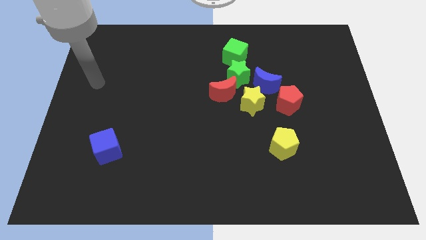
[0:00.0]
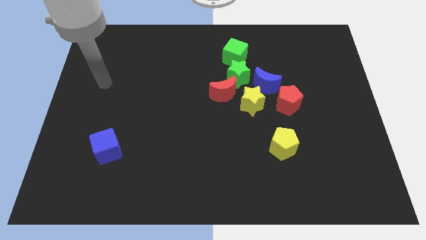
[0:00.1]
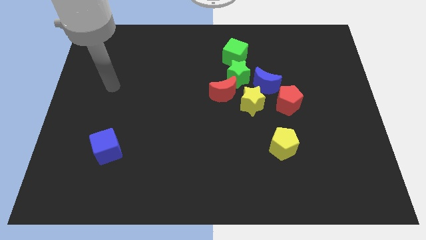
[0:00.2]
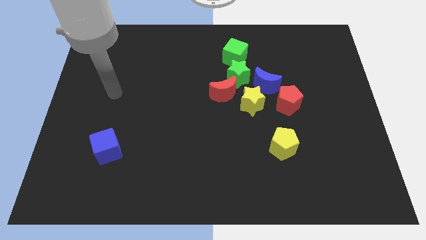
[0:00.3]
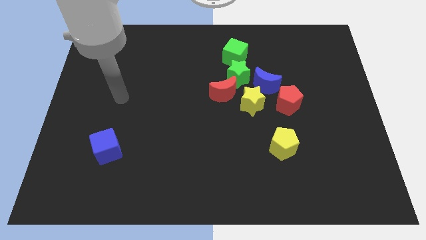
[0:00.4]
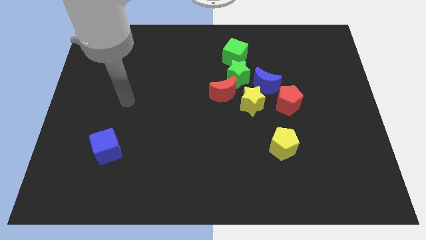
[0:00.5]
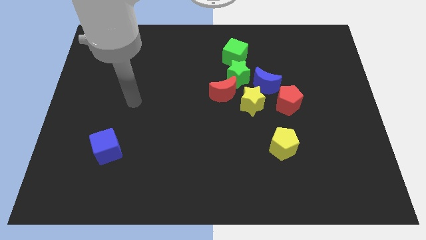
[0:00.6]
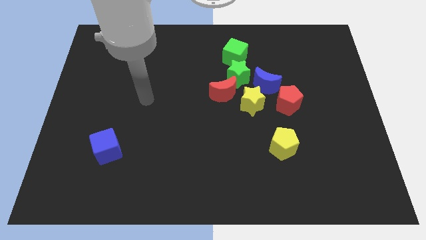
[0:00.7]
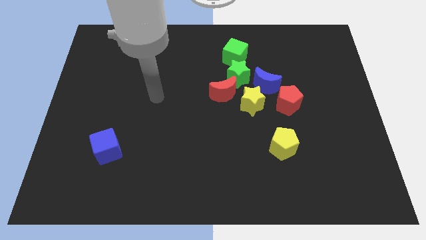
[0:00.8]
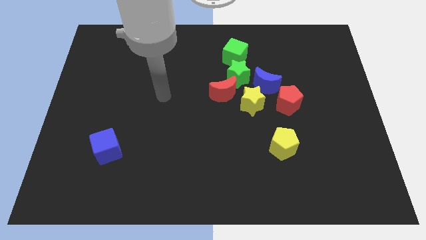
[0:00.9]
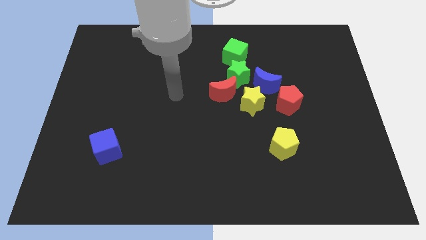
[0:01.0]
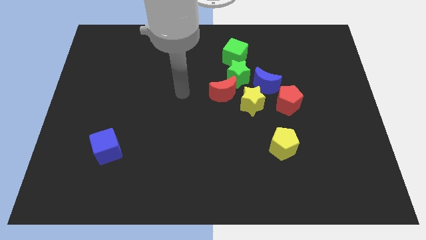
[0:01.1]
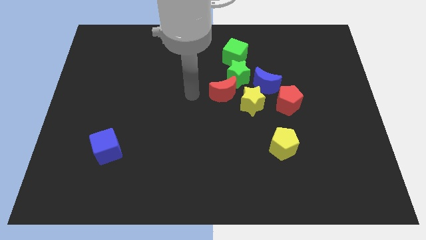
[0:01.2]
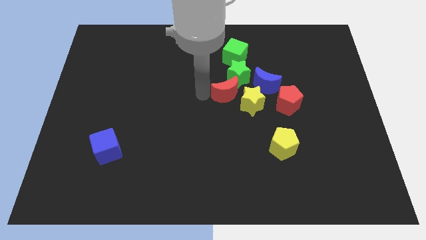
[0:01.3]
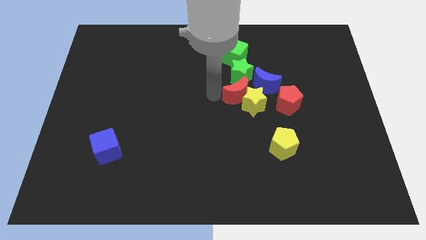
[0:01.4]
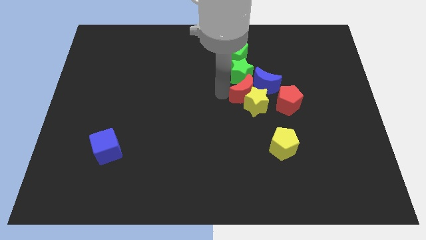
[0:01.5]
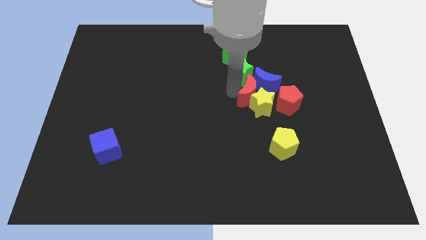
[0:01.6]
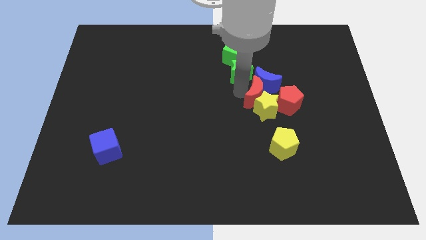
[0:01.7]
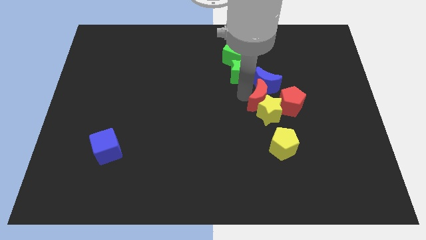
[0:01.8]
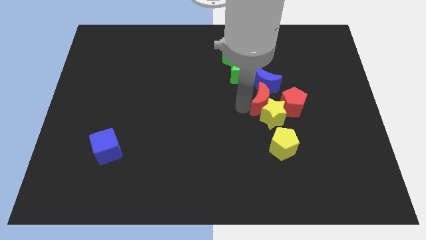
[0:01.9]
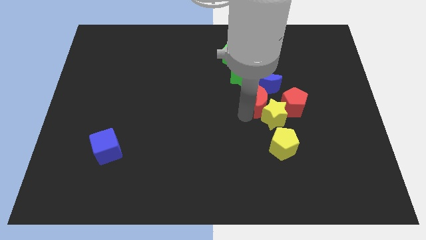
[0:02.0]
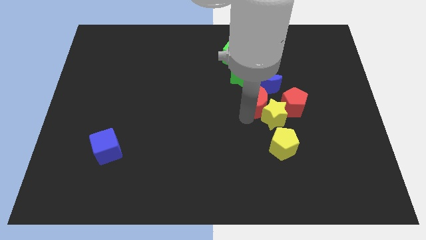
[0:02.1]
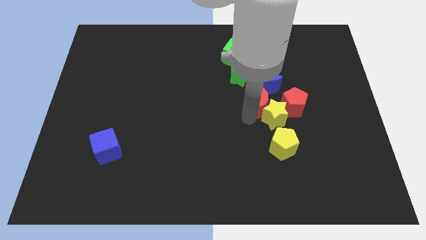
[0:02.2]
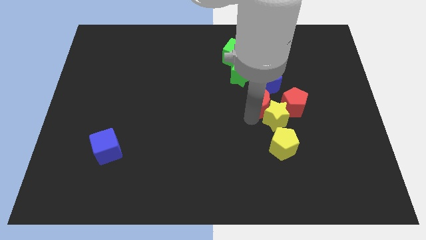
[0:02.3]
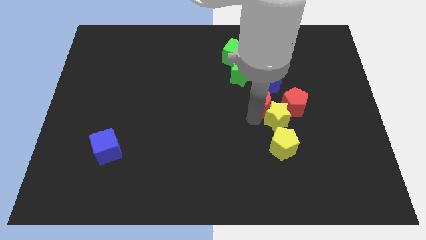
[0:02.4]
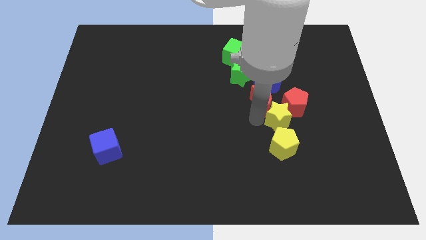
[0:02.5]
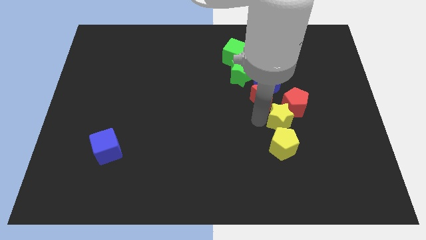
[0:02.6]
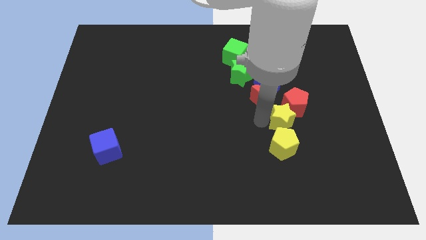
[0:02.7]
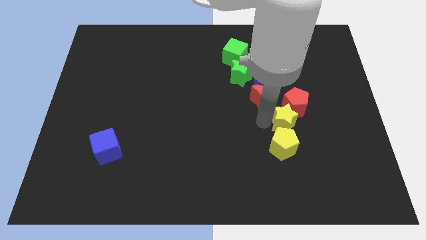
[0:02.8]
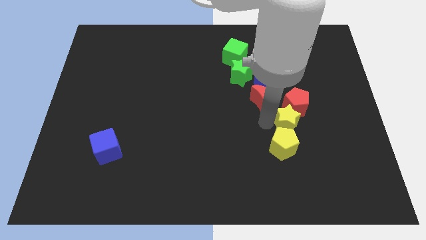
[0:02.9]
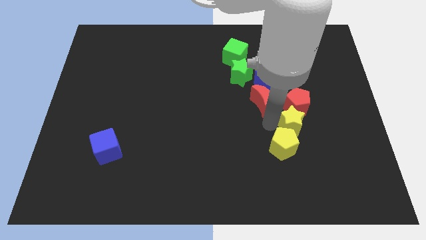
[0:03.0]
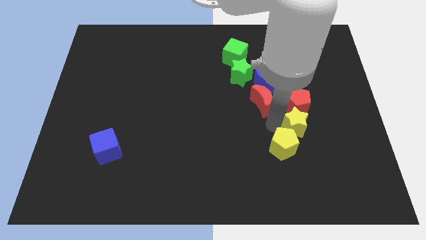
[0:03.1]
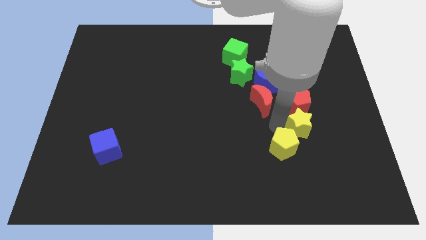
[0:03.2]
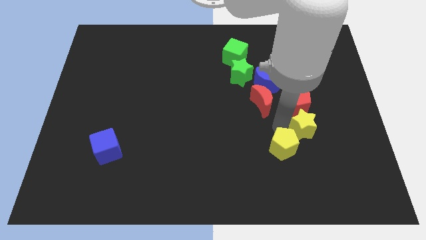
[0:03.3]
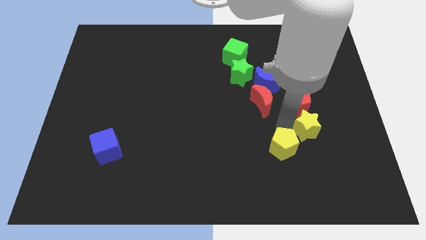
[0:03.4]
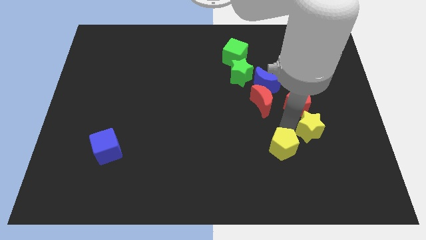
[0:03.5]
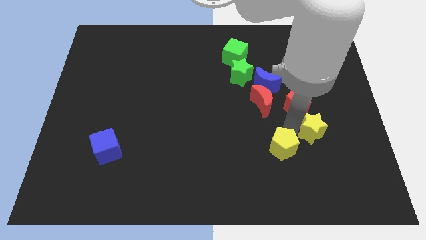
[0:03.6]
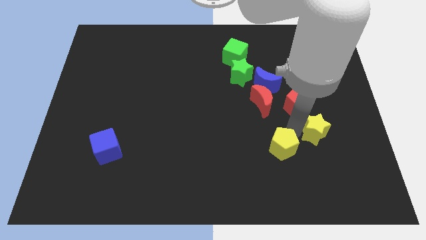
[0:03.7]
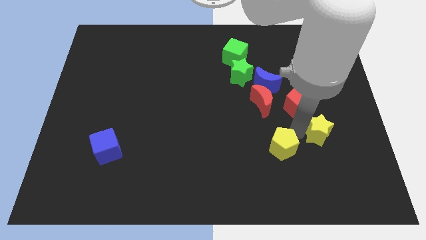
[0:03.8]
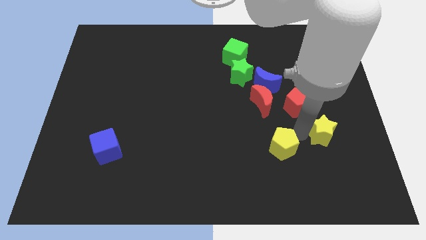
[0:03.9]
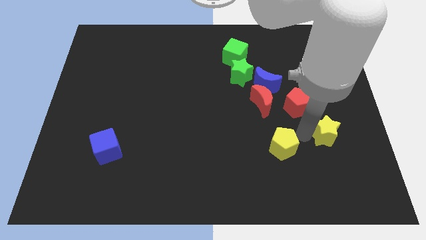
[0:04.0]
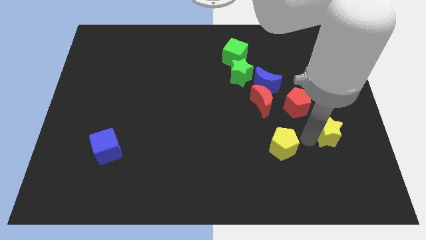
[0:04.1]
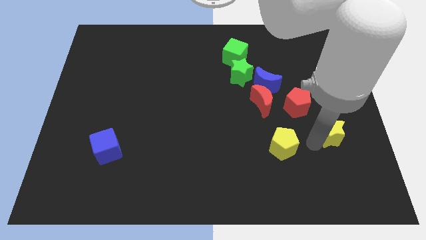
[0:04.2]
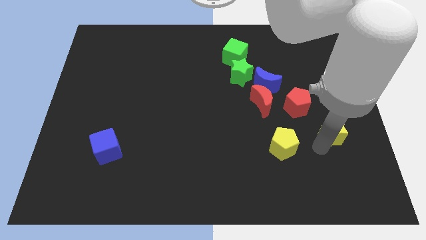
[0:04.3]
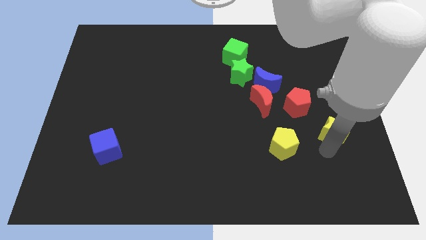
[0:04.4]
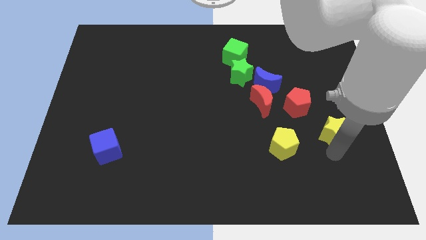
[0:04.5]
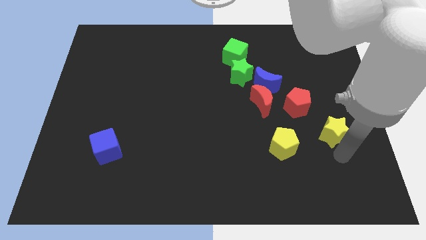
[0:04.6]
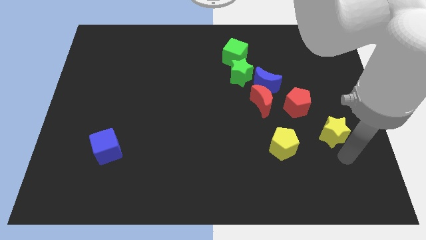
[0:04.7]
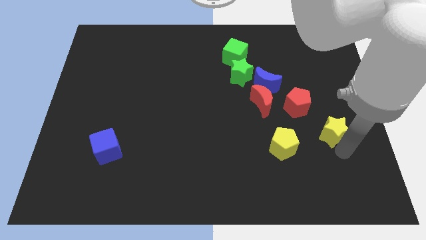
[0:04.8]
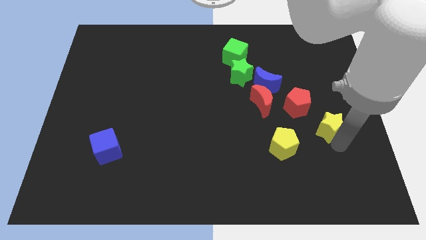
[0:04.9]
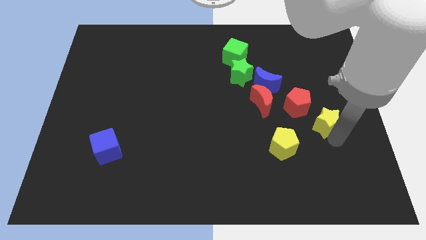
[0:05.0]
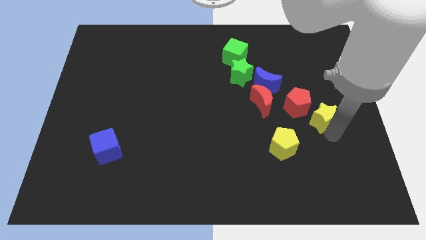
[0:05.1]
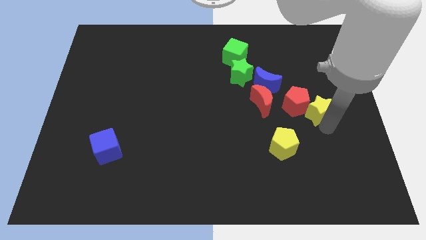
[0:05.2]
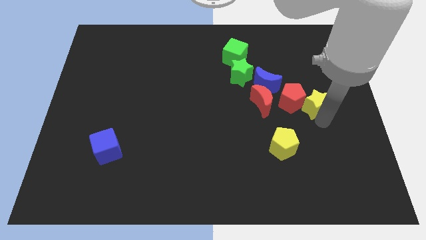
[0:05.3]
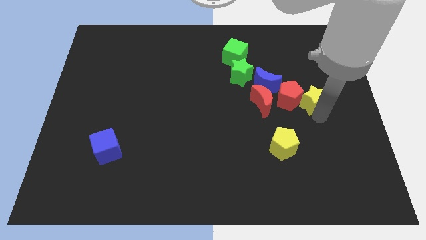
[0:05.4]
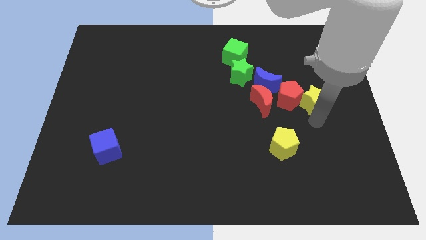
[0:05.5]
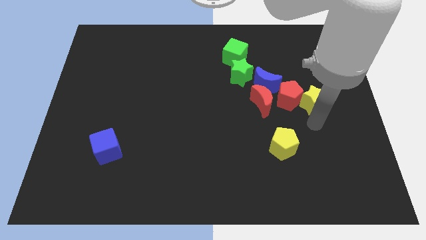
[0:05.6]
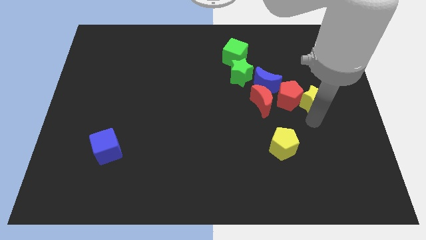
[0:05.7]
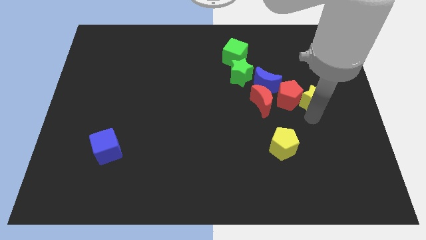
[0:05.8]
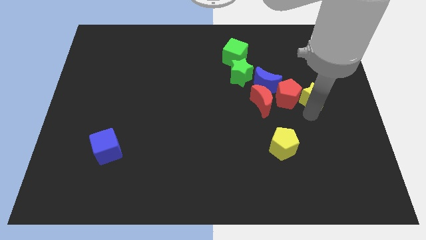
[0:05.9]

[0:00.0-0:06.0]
slightly move the yellow star upwards and to the right

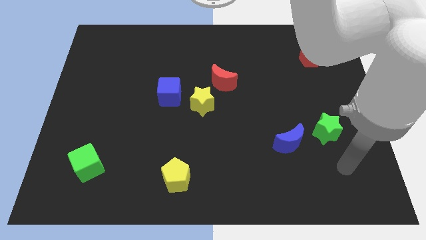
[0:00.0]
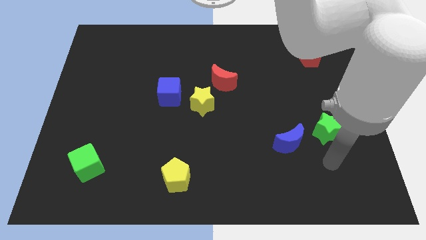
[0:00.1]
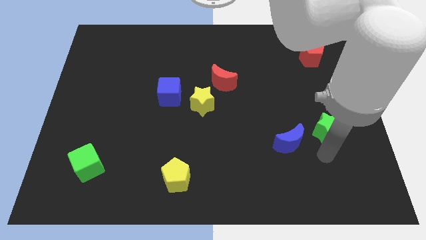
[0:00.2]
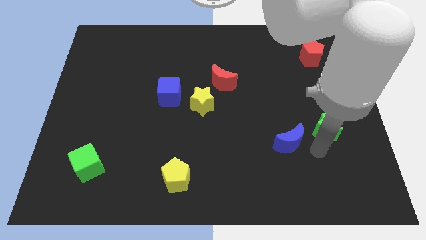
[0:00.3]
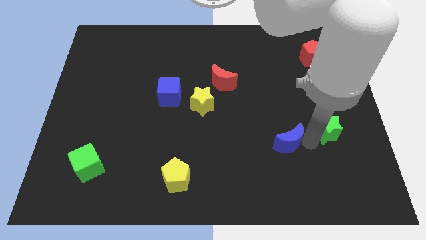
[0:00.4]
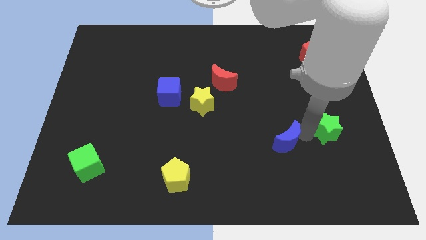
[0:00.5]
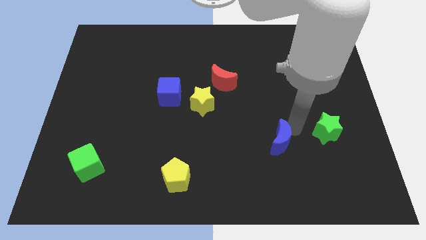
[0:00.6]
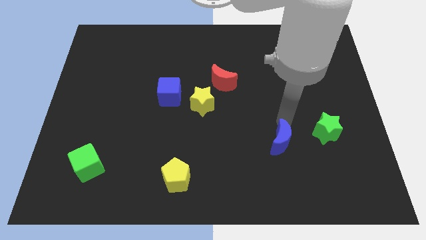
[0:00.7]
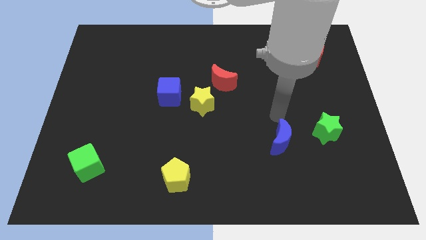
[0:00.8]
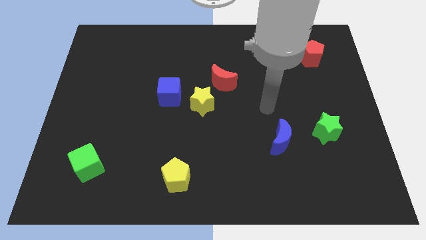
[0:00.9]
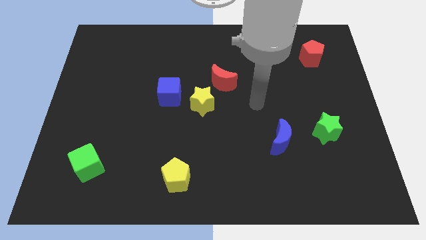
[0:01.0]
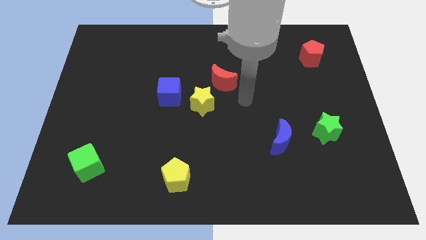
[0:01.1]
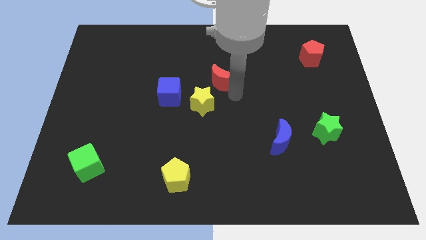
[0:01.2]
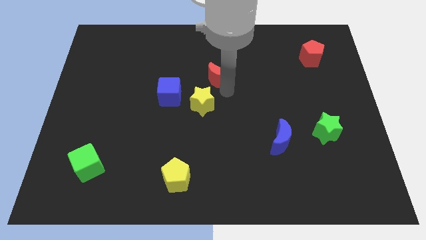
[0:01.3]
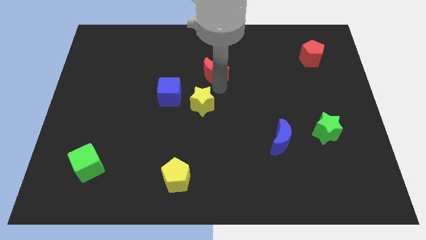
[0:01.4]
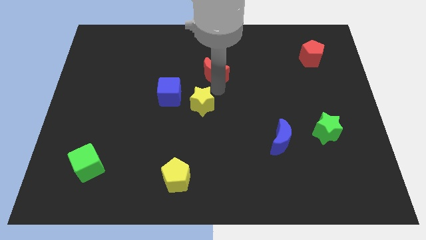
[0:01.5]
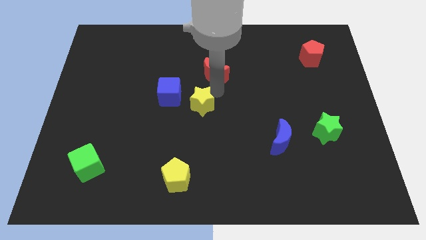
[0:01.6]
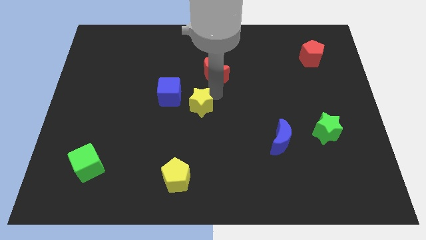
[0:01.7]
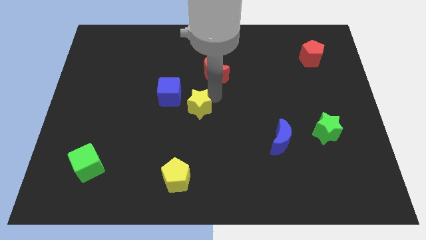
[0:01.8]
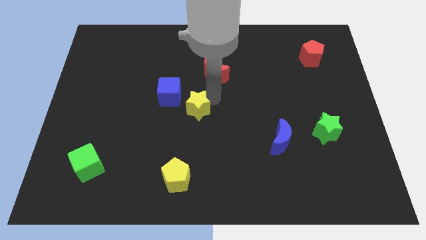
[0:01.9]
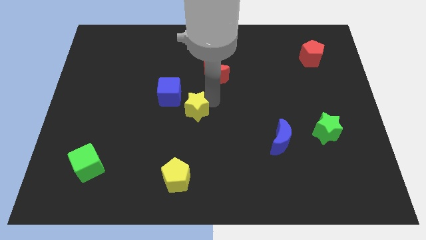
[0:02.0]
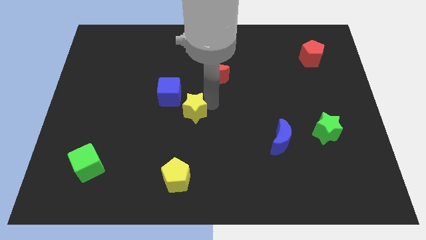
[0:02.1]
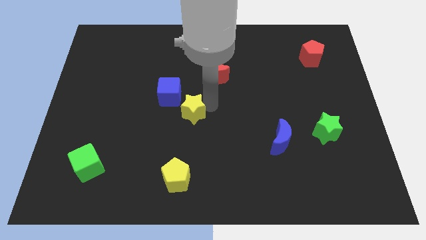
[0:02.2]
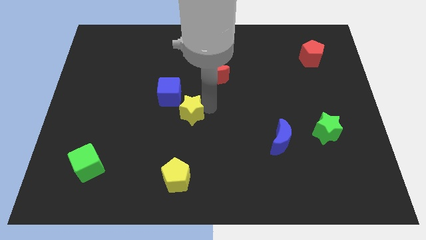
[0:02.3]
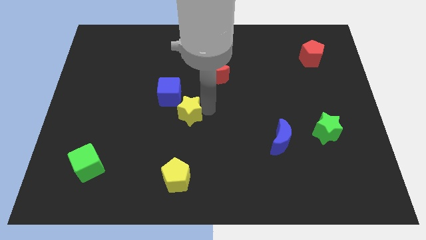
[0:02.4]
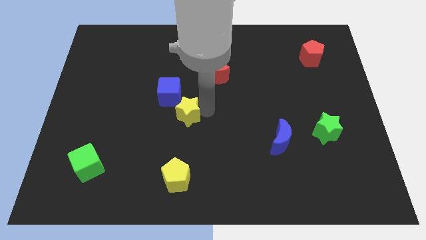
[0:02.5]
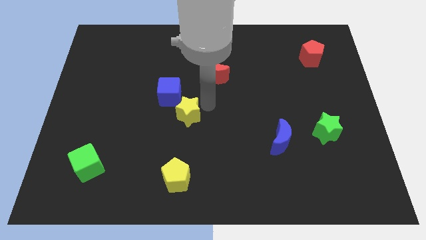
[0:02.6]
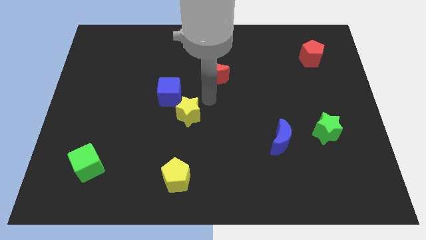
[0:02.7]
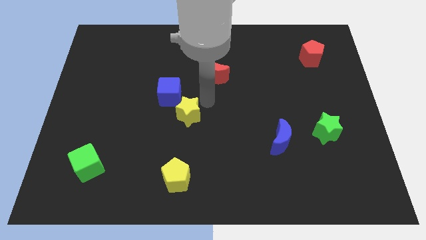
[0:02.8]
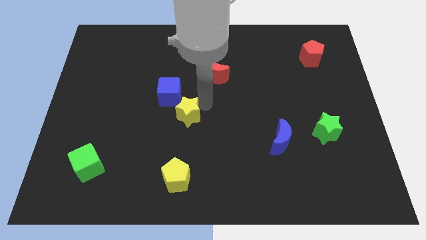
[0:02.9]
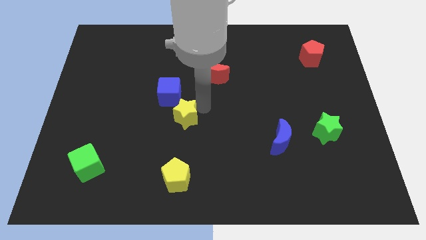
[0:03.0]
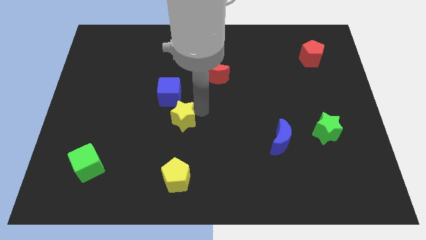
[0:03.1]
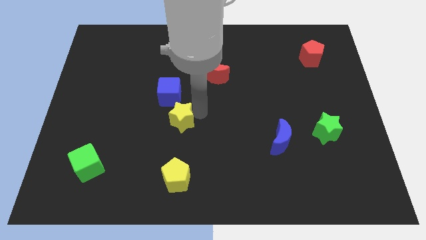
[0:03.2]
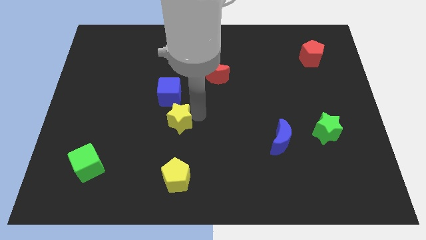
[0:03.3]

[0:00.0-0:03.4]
move the yellow star somewhat diagonally down and left
